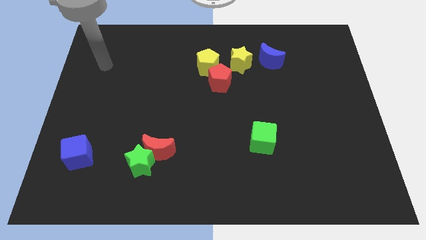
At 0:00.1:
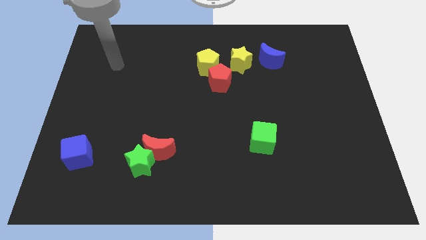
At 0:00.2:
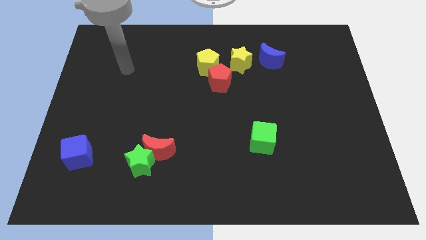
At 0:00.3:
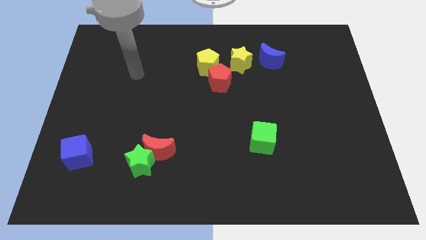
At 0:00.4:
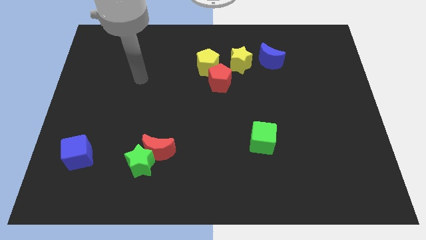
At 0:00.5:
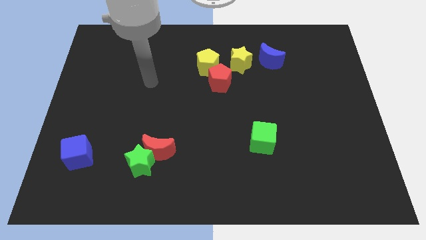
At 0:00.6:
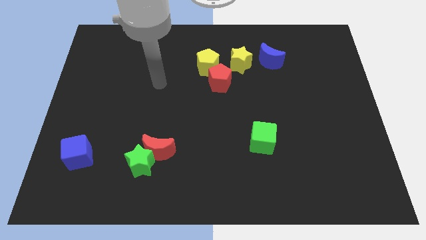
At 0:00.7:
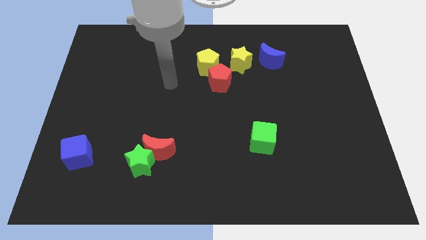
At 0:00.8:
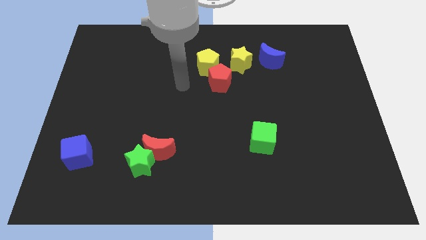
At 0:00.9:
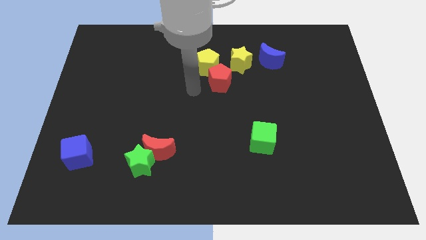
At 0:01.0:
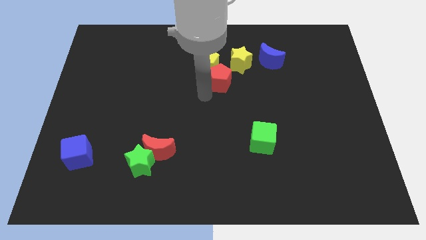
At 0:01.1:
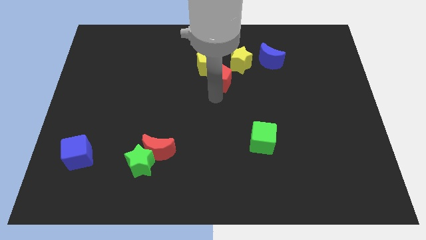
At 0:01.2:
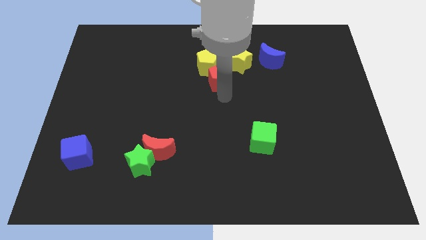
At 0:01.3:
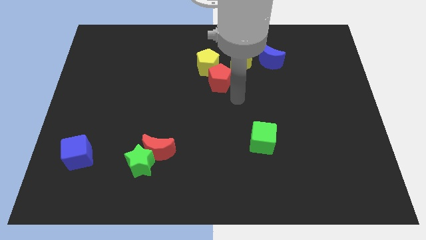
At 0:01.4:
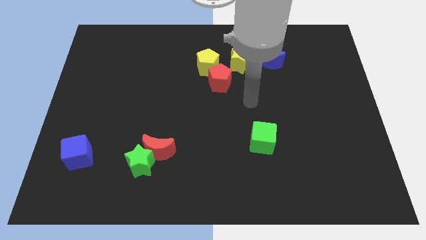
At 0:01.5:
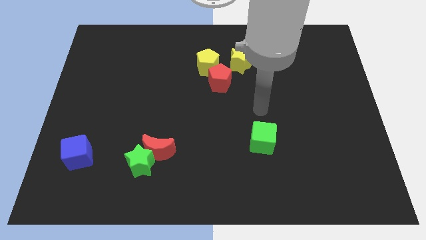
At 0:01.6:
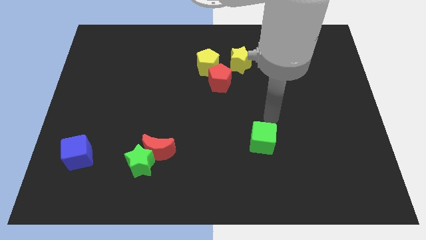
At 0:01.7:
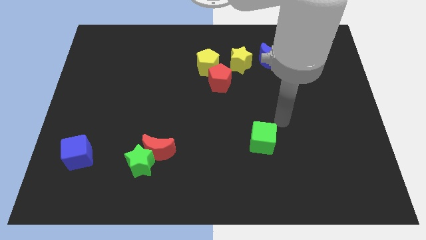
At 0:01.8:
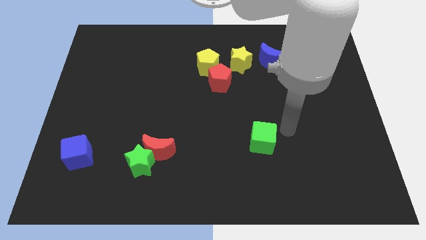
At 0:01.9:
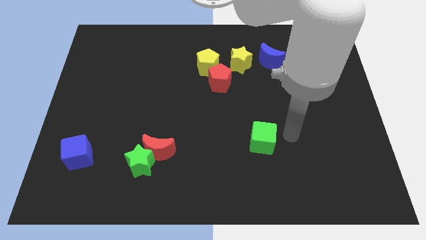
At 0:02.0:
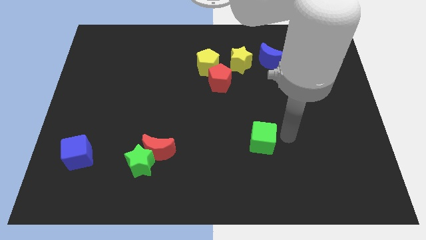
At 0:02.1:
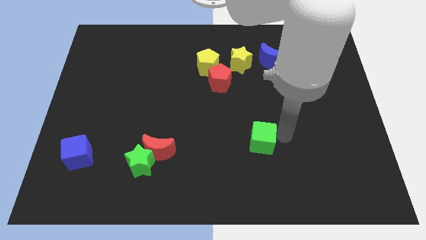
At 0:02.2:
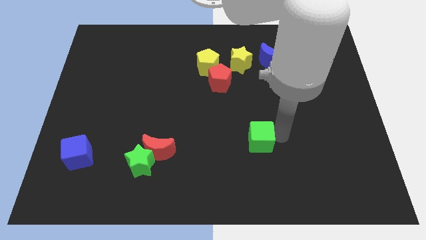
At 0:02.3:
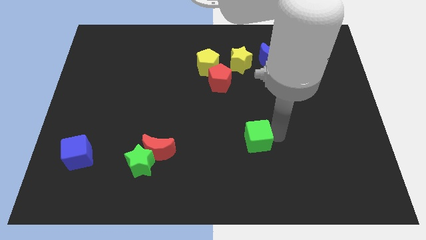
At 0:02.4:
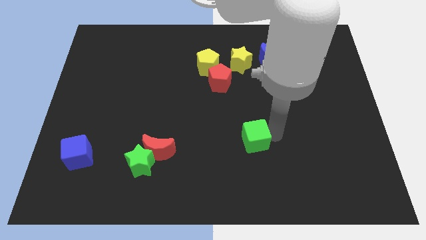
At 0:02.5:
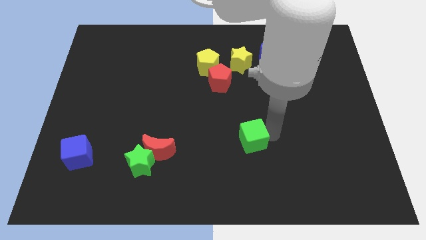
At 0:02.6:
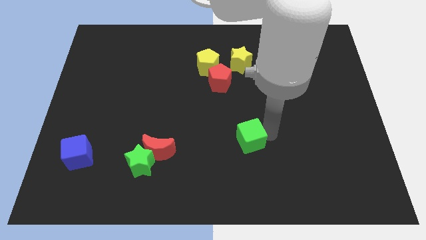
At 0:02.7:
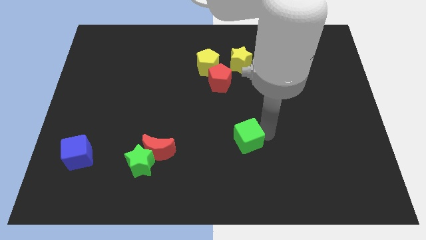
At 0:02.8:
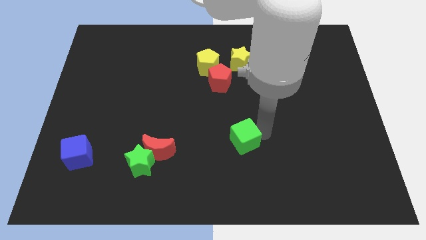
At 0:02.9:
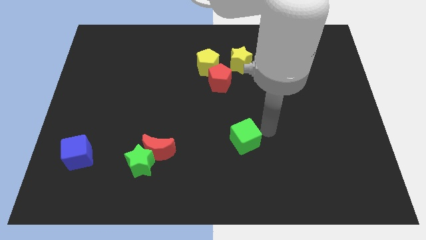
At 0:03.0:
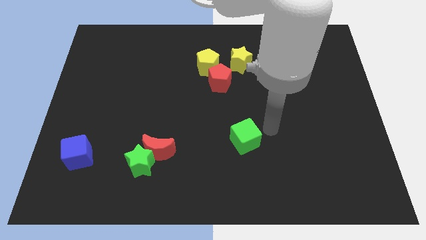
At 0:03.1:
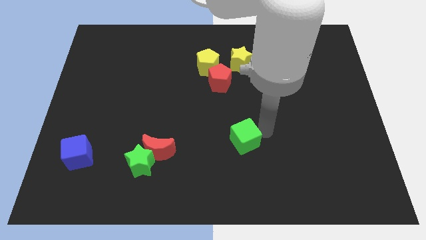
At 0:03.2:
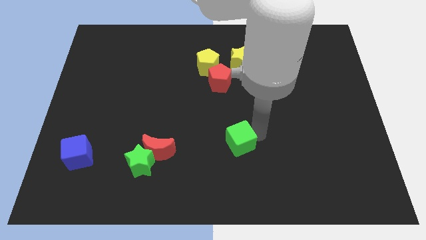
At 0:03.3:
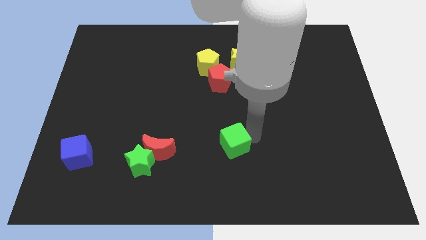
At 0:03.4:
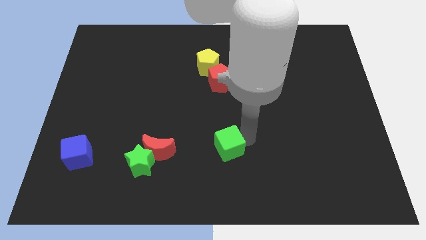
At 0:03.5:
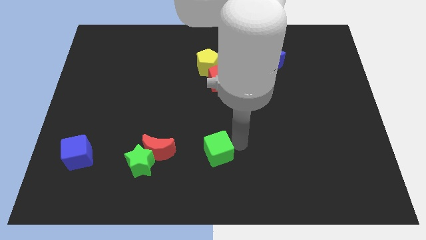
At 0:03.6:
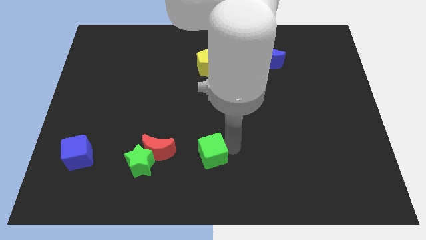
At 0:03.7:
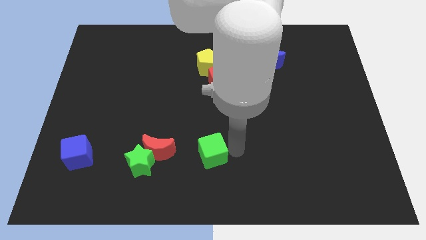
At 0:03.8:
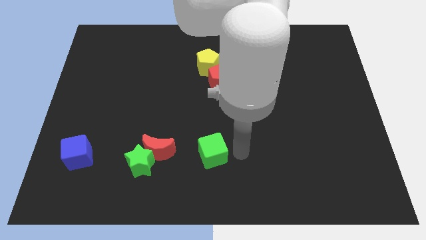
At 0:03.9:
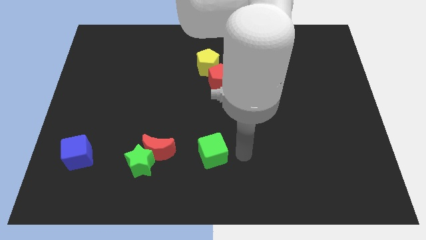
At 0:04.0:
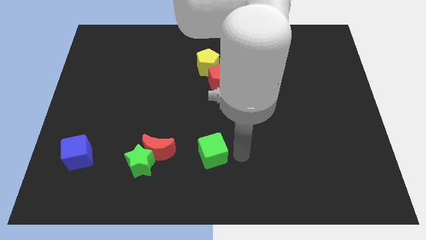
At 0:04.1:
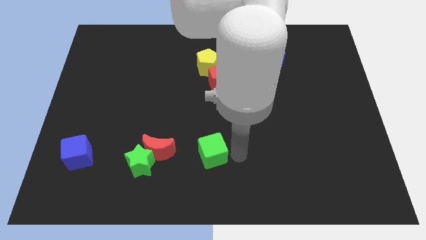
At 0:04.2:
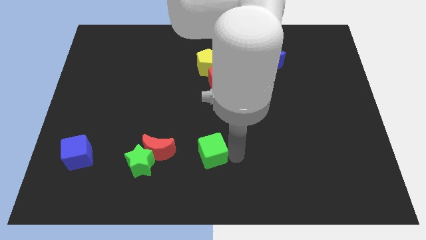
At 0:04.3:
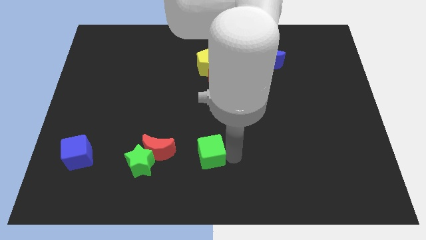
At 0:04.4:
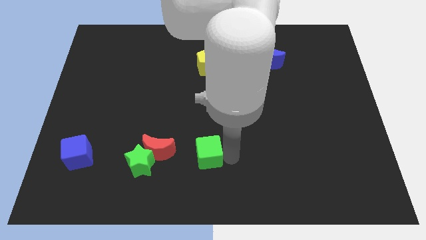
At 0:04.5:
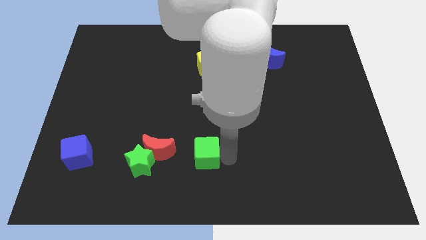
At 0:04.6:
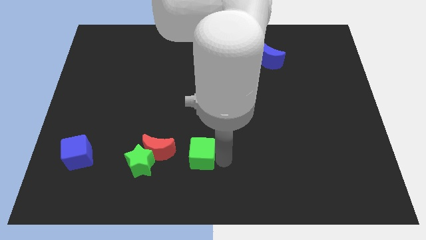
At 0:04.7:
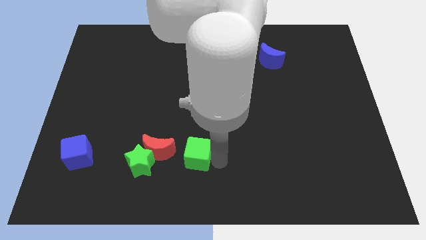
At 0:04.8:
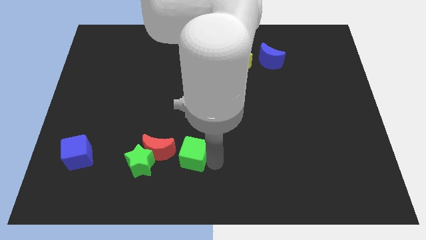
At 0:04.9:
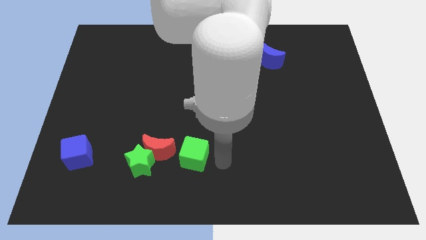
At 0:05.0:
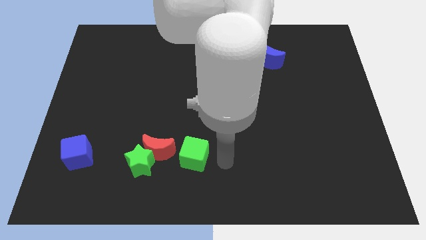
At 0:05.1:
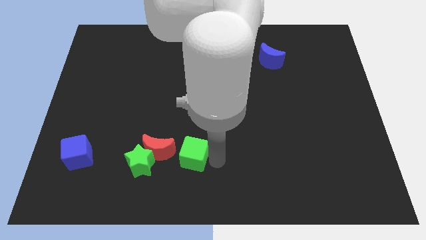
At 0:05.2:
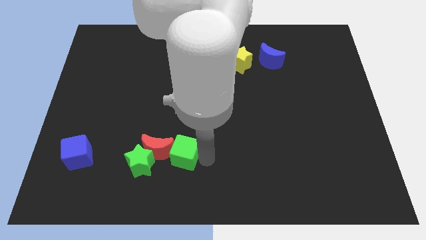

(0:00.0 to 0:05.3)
move the green cube next to the red moon

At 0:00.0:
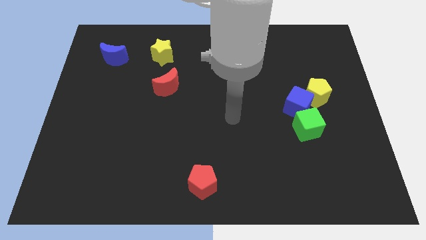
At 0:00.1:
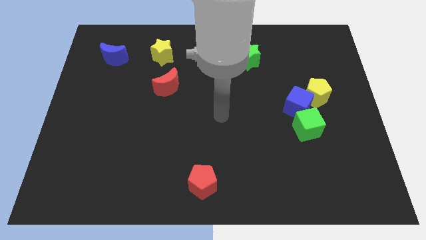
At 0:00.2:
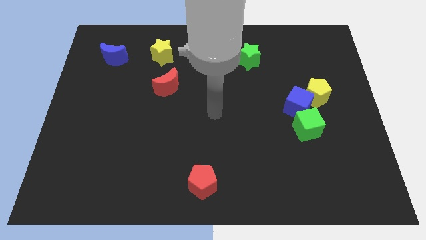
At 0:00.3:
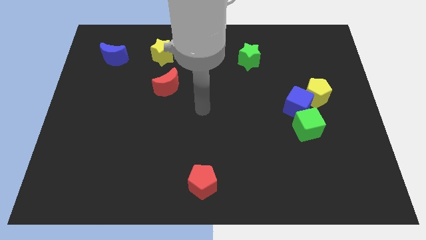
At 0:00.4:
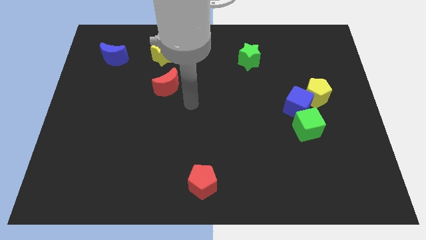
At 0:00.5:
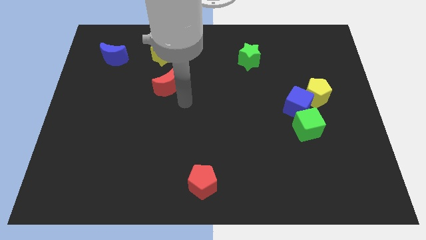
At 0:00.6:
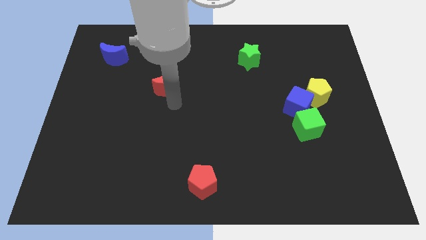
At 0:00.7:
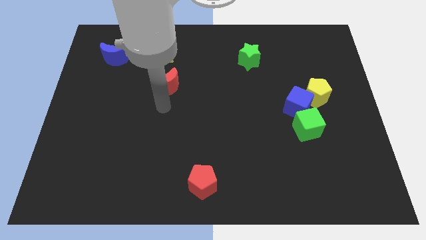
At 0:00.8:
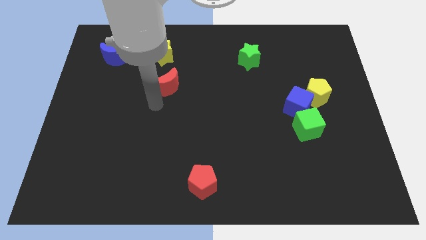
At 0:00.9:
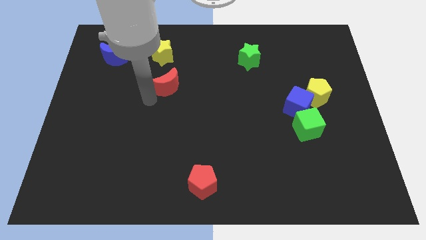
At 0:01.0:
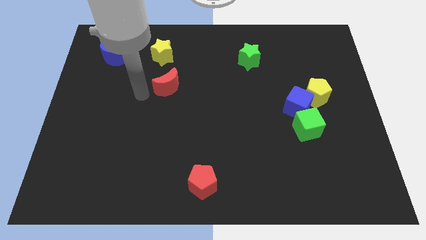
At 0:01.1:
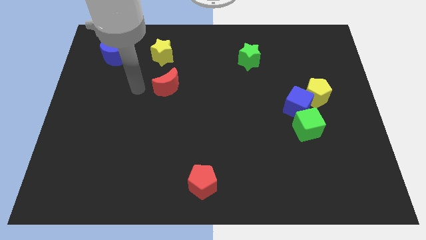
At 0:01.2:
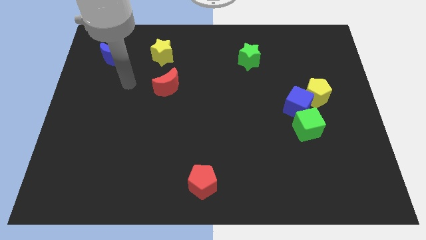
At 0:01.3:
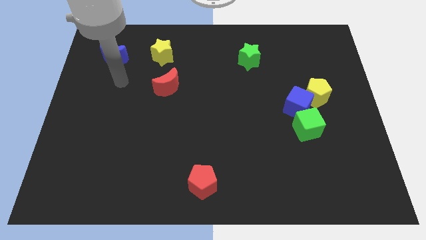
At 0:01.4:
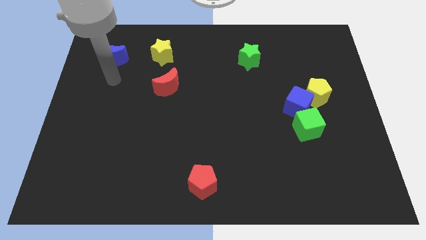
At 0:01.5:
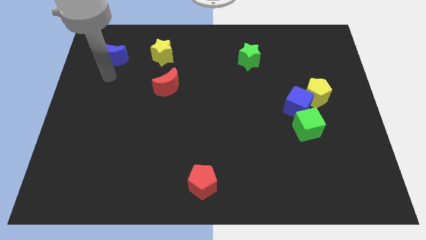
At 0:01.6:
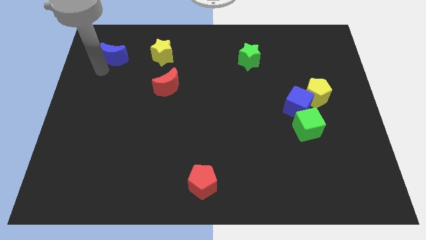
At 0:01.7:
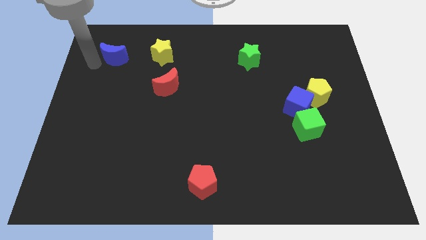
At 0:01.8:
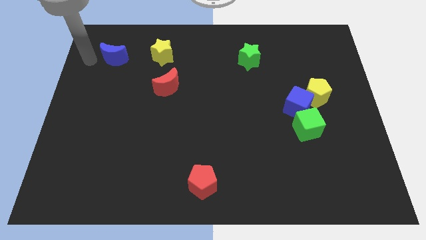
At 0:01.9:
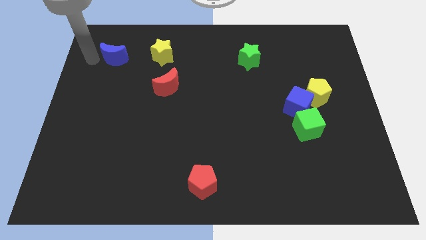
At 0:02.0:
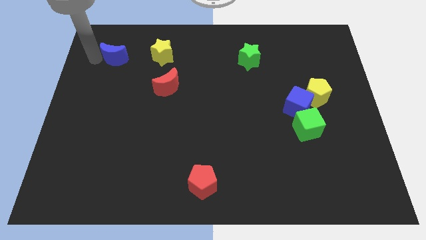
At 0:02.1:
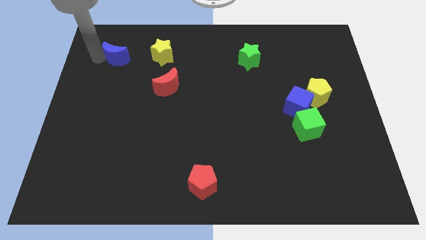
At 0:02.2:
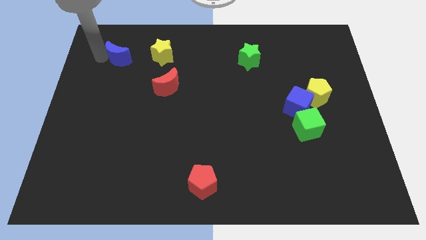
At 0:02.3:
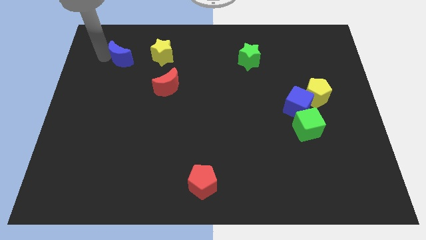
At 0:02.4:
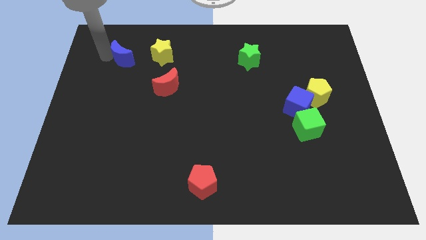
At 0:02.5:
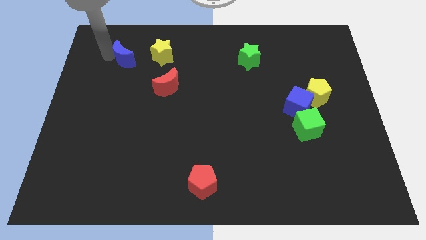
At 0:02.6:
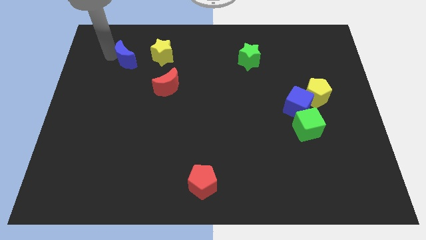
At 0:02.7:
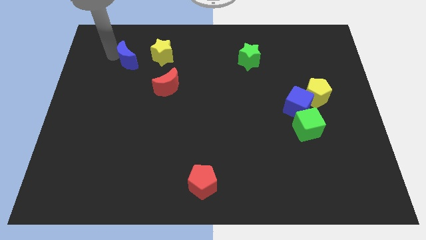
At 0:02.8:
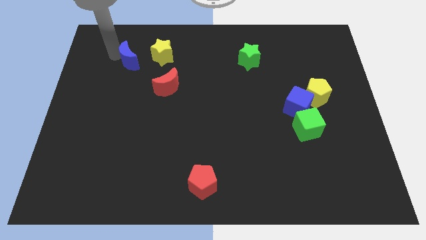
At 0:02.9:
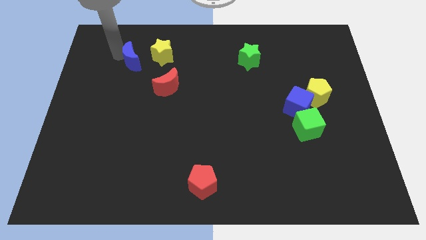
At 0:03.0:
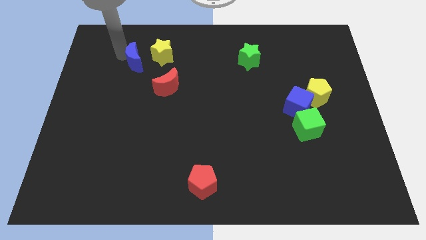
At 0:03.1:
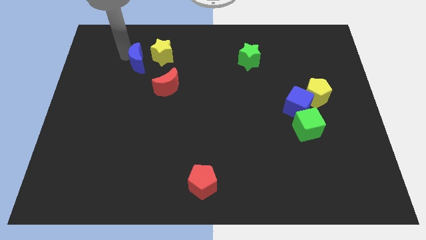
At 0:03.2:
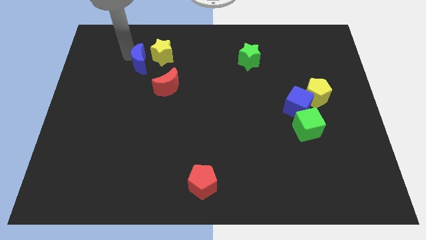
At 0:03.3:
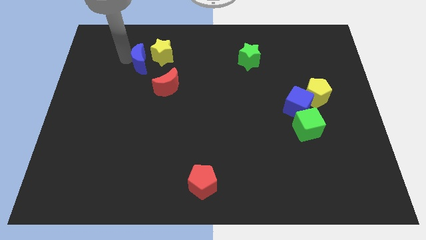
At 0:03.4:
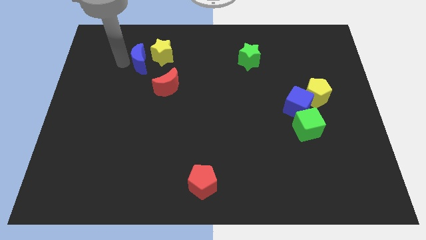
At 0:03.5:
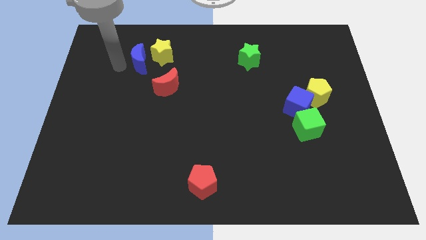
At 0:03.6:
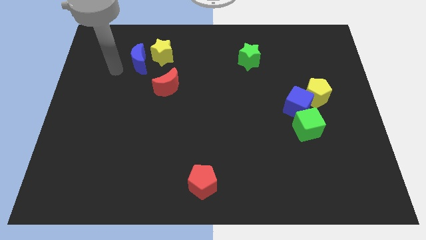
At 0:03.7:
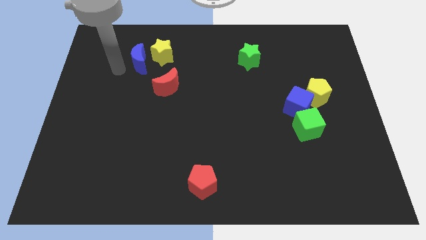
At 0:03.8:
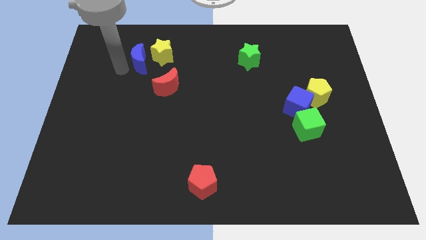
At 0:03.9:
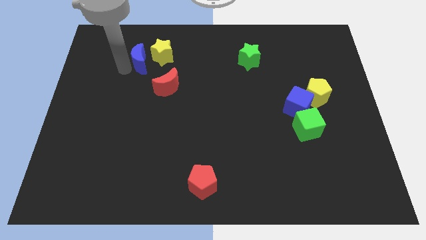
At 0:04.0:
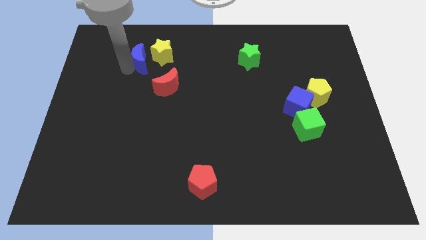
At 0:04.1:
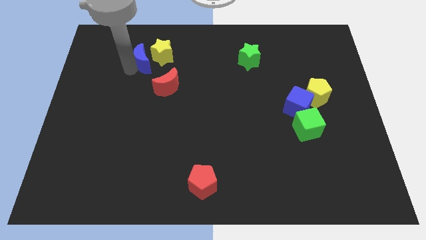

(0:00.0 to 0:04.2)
put the blue moon towards the yellow star
